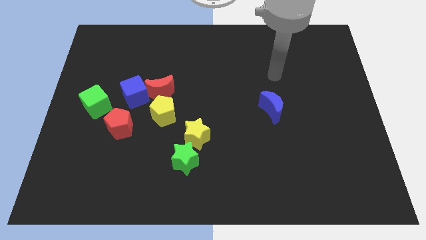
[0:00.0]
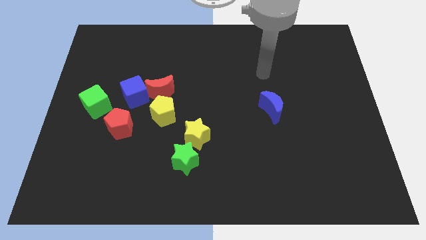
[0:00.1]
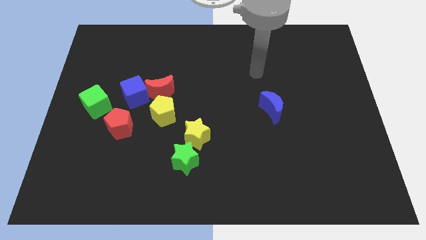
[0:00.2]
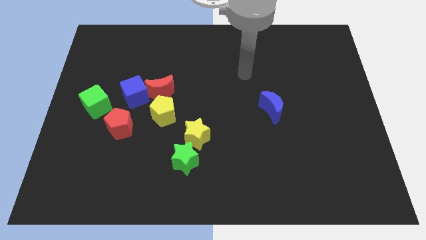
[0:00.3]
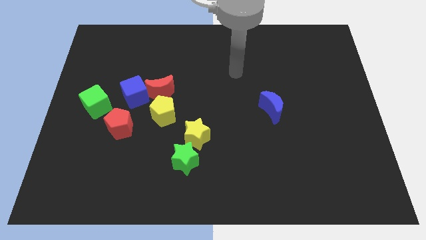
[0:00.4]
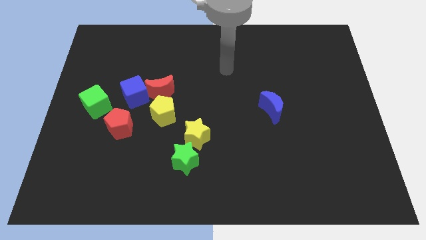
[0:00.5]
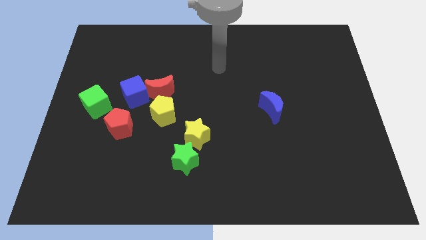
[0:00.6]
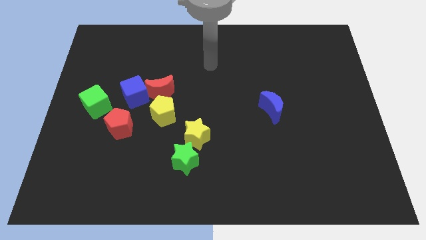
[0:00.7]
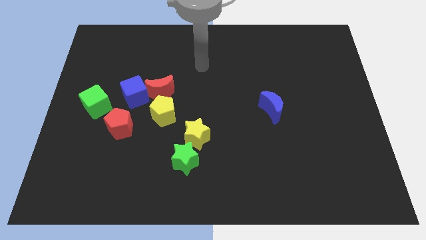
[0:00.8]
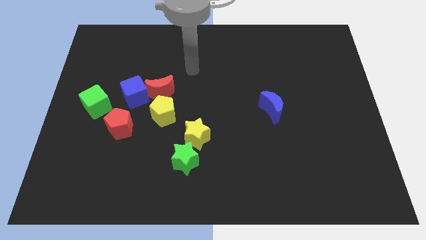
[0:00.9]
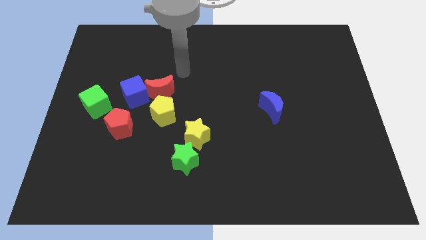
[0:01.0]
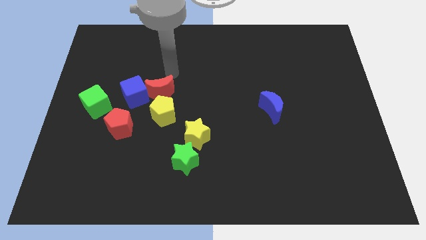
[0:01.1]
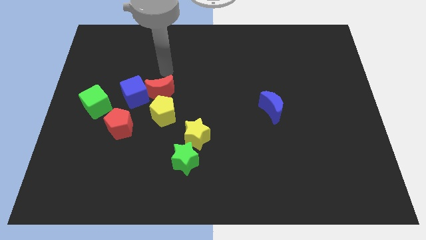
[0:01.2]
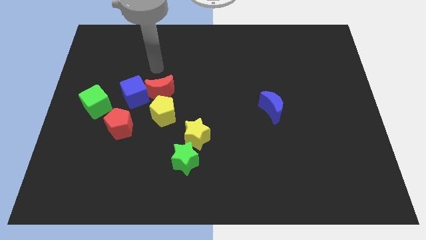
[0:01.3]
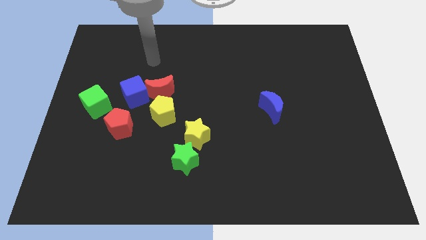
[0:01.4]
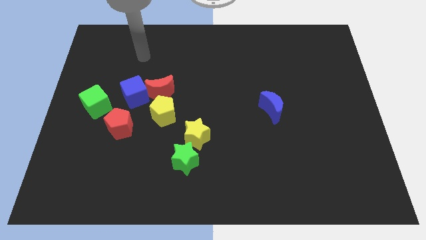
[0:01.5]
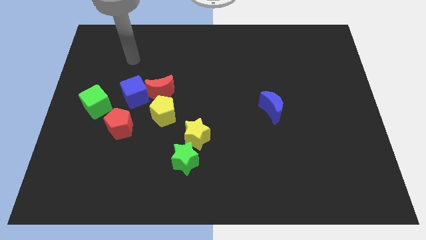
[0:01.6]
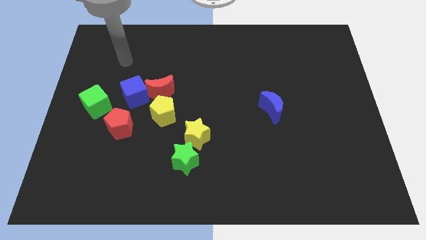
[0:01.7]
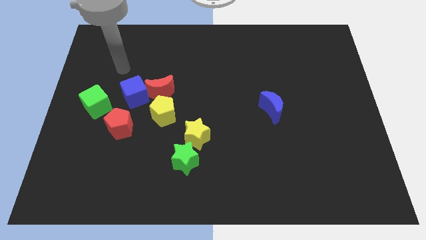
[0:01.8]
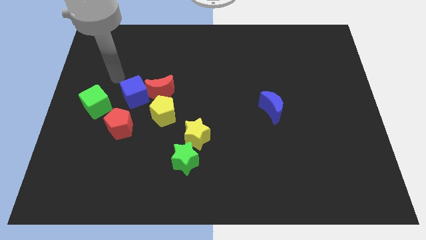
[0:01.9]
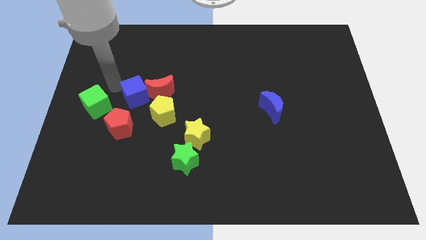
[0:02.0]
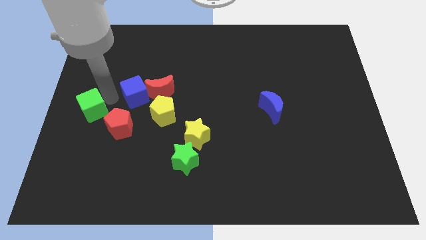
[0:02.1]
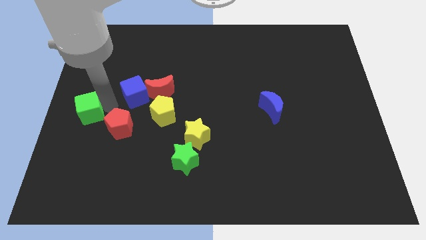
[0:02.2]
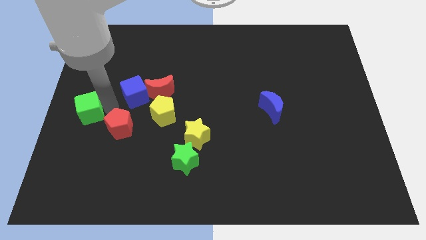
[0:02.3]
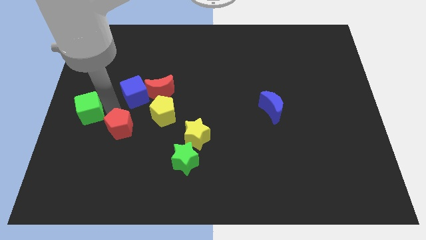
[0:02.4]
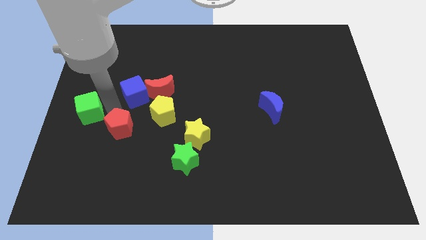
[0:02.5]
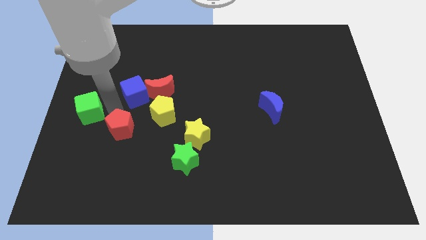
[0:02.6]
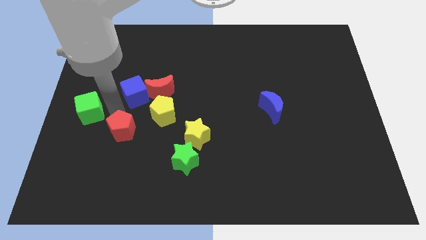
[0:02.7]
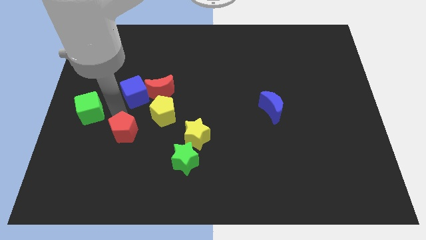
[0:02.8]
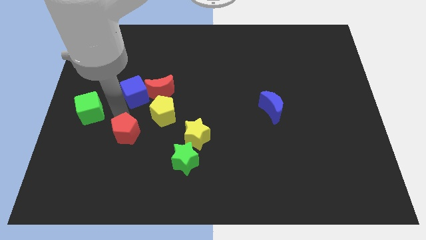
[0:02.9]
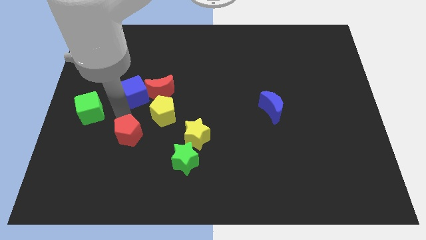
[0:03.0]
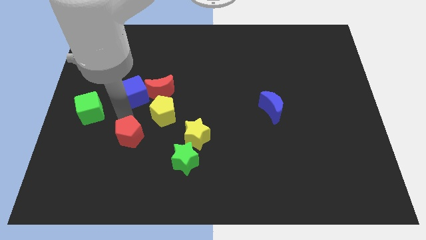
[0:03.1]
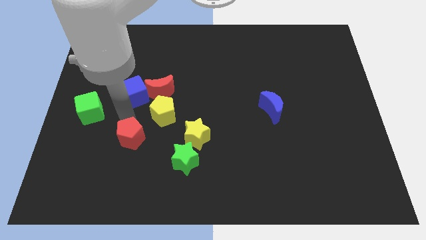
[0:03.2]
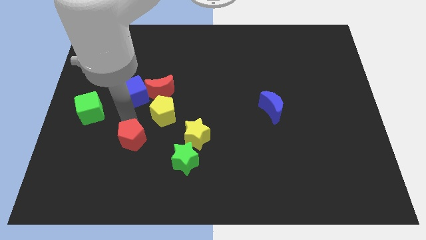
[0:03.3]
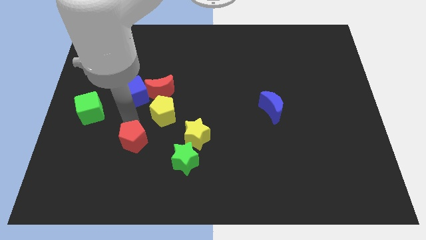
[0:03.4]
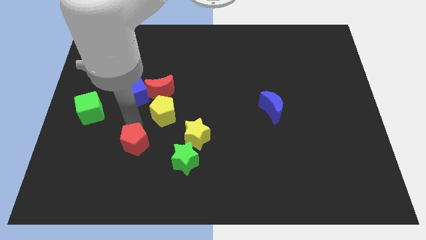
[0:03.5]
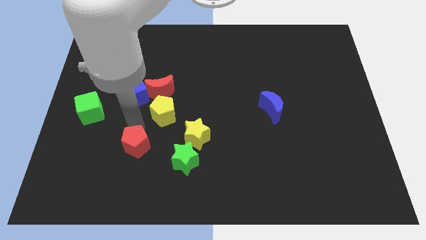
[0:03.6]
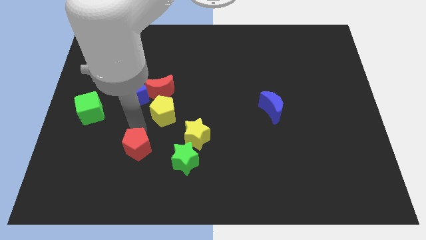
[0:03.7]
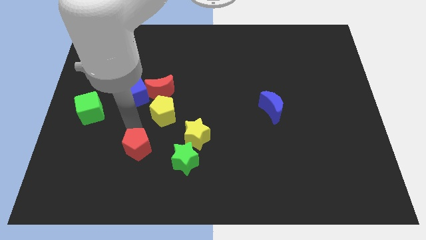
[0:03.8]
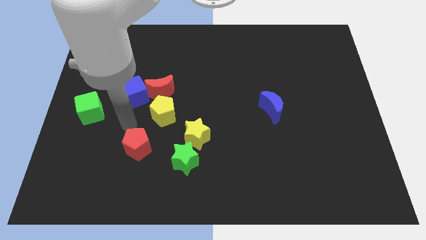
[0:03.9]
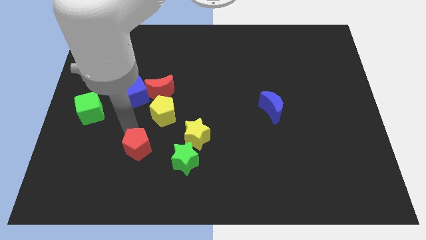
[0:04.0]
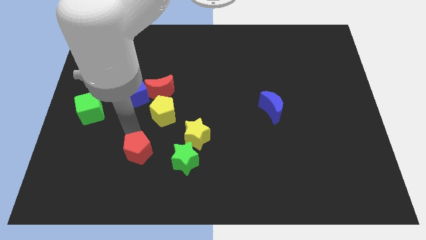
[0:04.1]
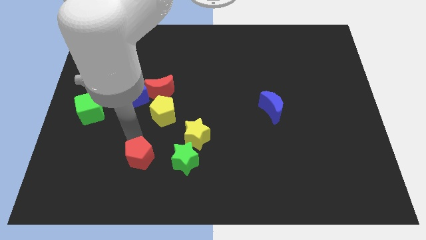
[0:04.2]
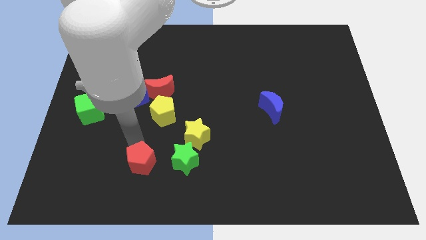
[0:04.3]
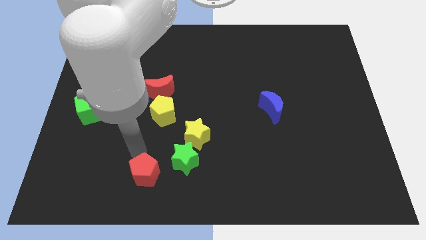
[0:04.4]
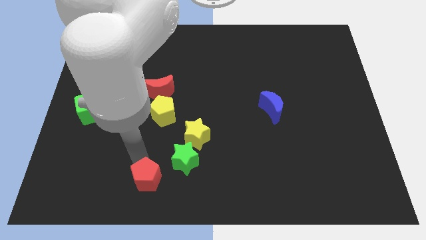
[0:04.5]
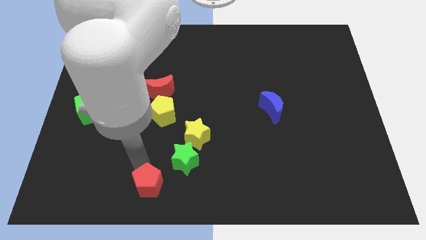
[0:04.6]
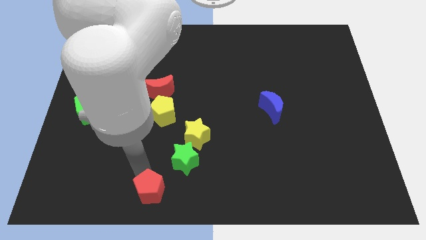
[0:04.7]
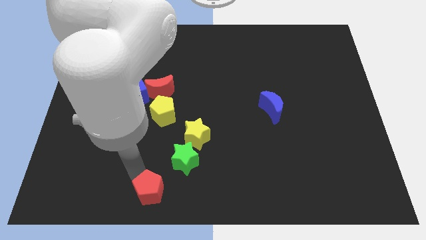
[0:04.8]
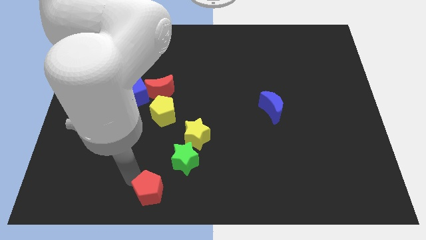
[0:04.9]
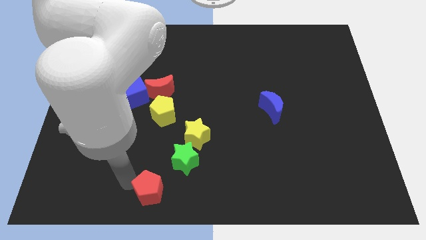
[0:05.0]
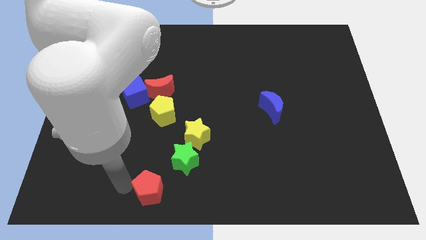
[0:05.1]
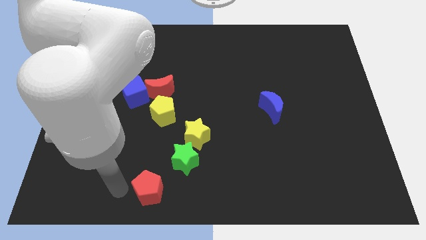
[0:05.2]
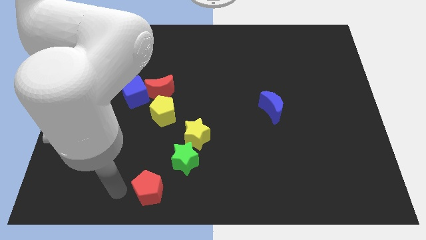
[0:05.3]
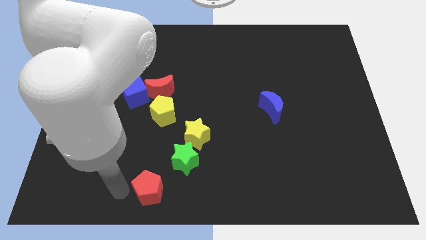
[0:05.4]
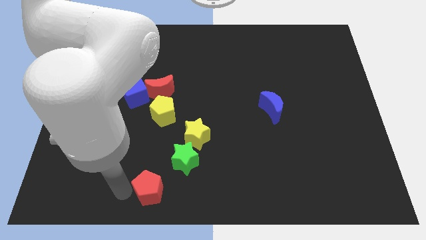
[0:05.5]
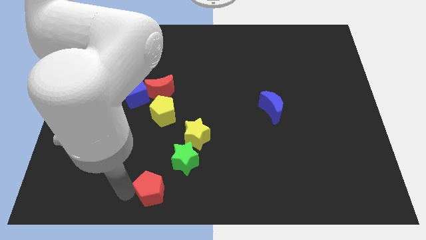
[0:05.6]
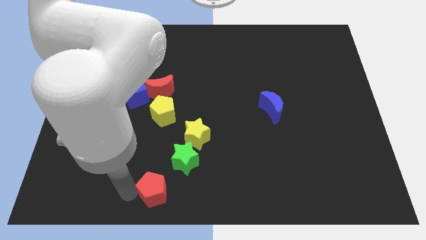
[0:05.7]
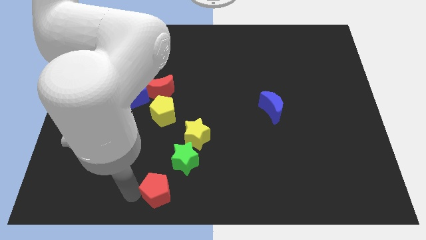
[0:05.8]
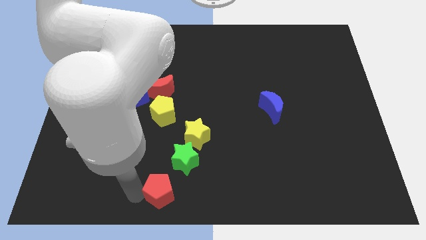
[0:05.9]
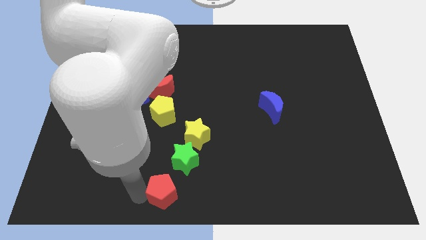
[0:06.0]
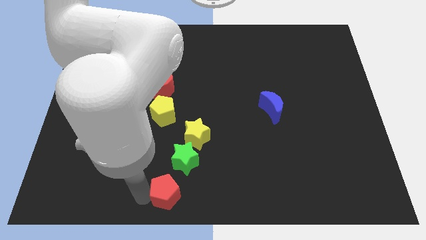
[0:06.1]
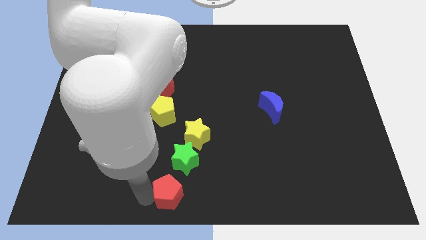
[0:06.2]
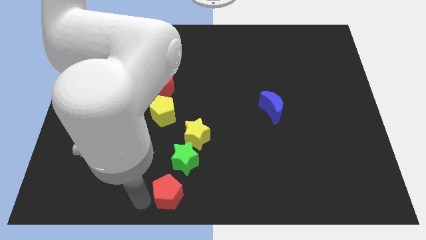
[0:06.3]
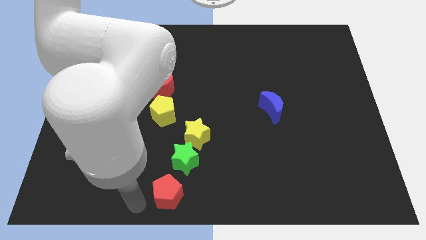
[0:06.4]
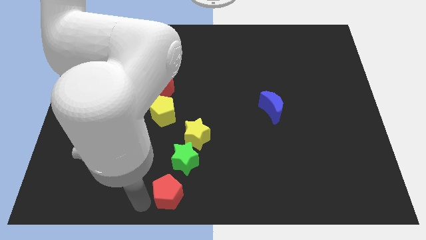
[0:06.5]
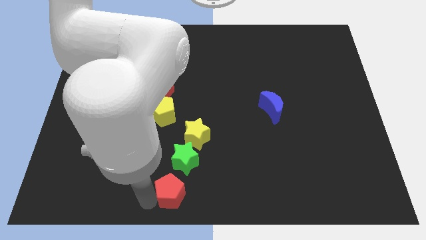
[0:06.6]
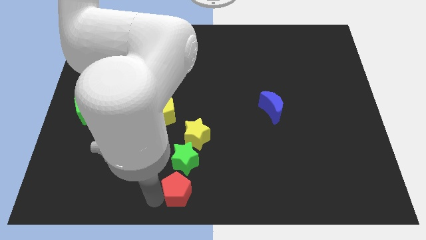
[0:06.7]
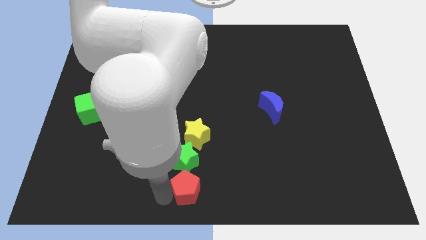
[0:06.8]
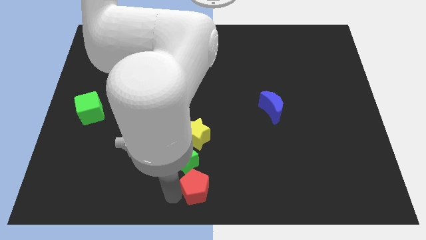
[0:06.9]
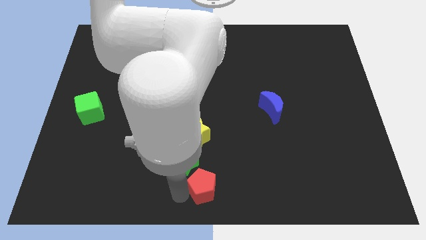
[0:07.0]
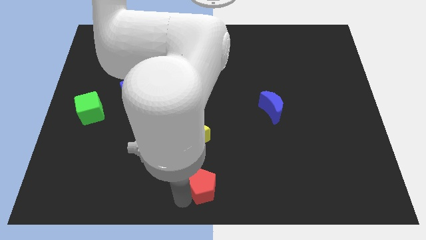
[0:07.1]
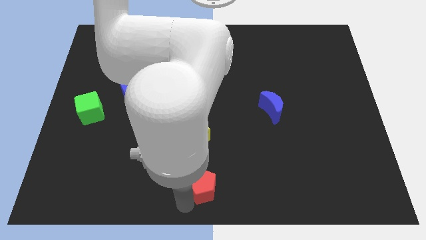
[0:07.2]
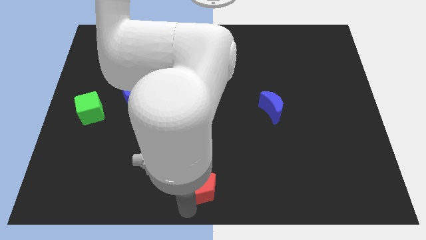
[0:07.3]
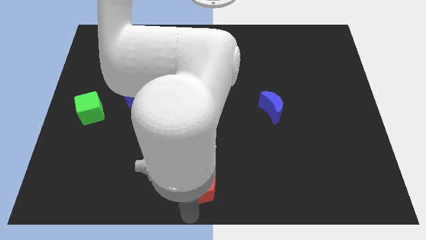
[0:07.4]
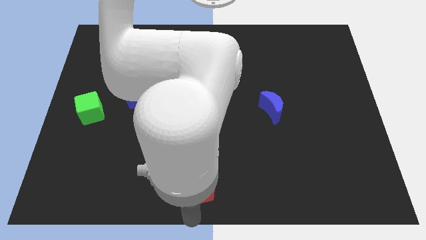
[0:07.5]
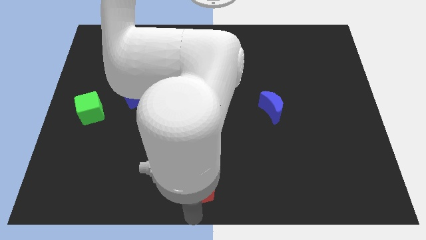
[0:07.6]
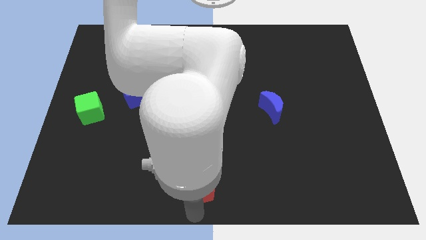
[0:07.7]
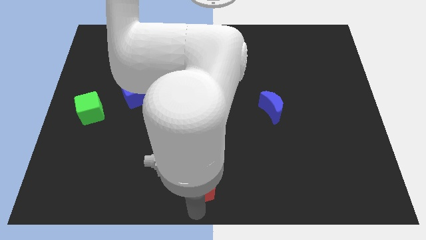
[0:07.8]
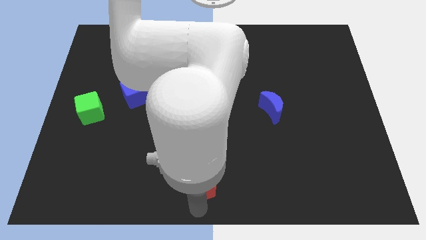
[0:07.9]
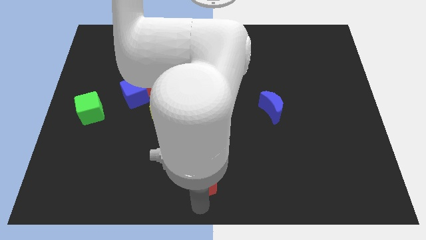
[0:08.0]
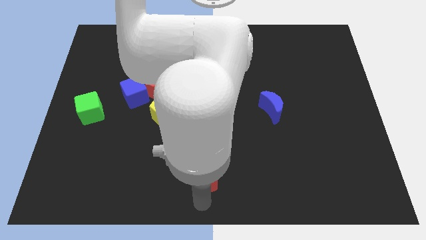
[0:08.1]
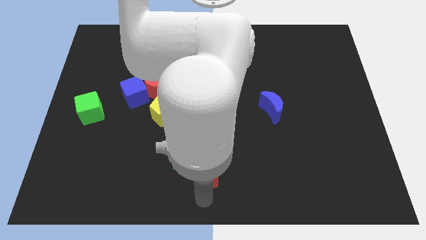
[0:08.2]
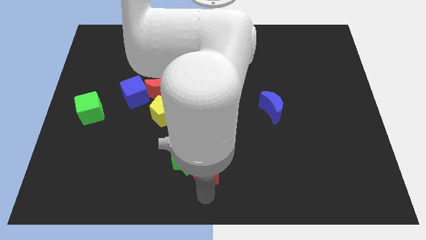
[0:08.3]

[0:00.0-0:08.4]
move the red pentagon to the bottom right of the yellow star
